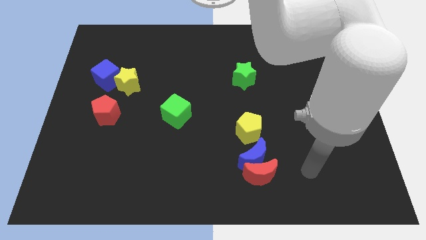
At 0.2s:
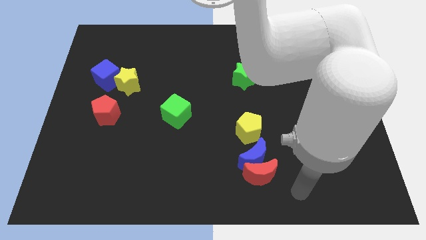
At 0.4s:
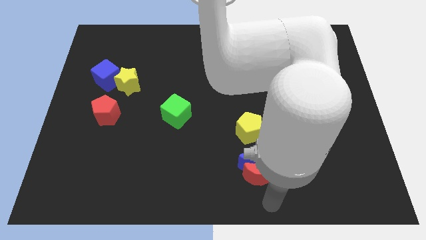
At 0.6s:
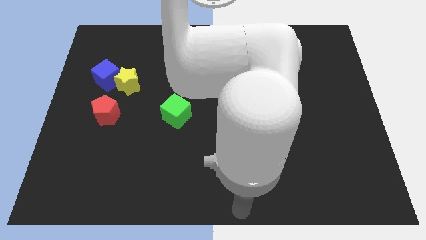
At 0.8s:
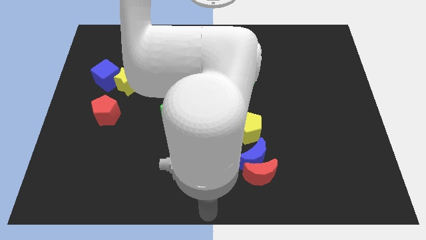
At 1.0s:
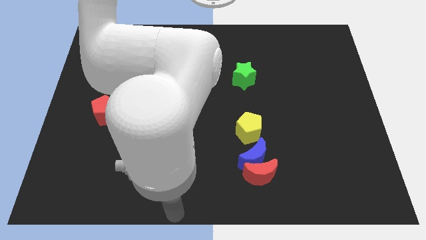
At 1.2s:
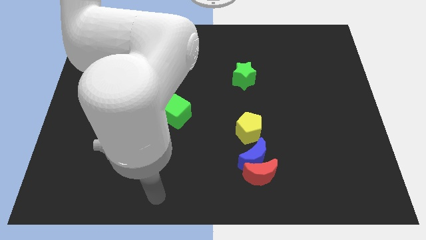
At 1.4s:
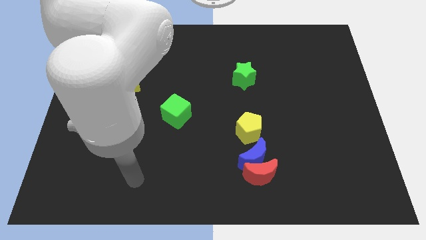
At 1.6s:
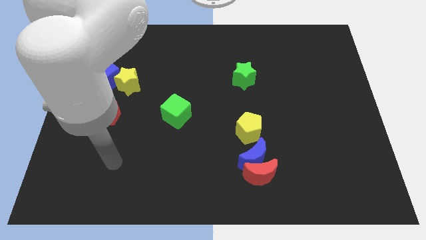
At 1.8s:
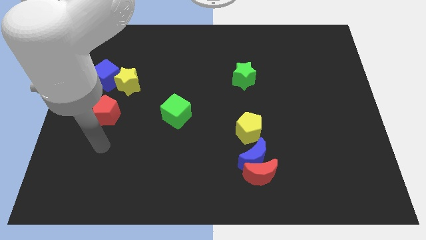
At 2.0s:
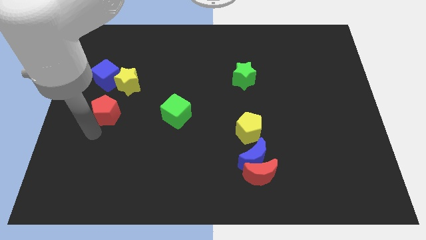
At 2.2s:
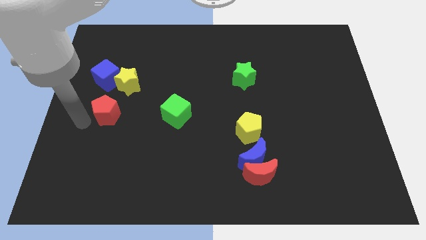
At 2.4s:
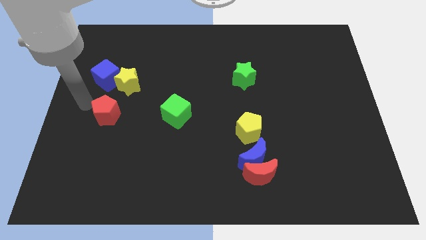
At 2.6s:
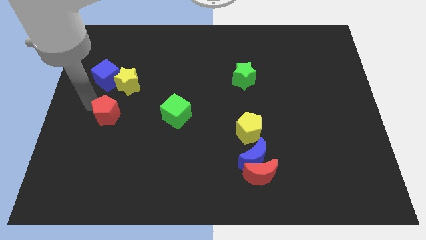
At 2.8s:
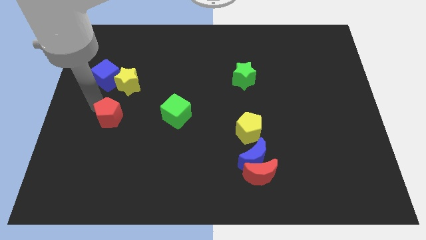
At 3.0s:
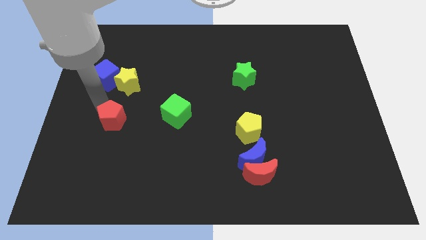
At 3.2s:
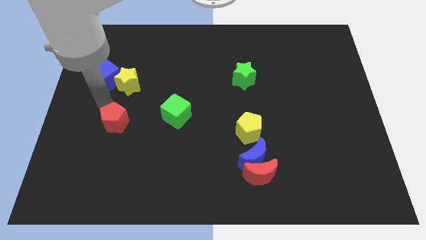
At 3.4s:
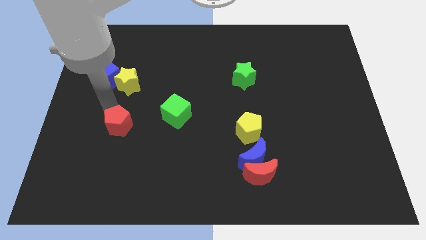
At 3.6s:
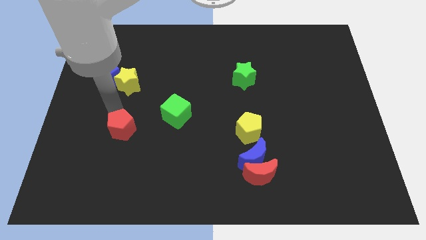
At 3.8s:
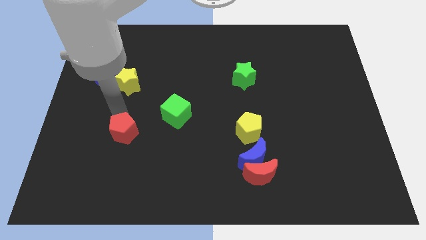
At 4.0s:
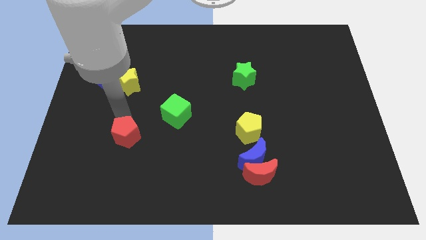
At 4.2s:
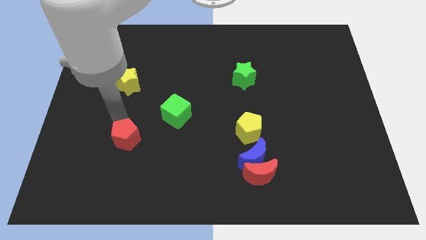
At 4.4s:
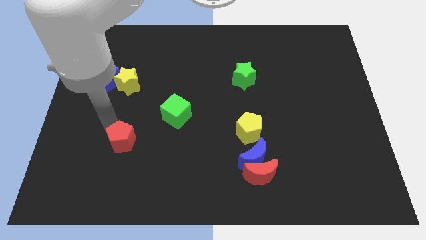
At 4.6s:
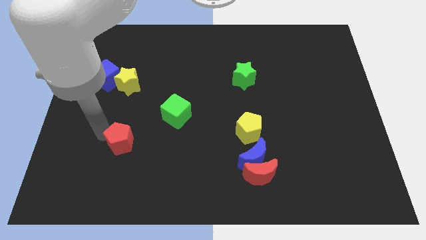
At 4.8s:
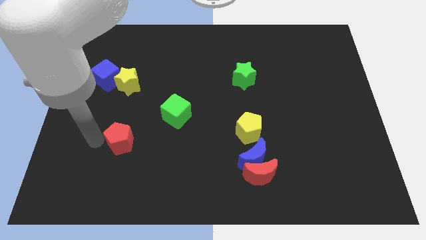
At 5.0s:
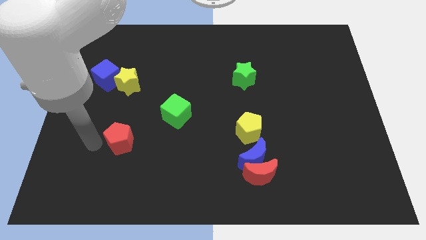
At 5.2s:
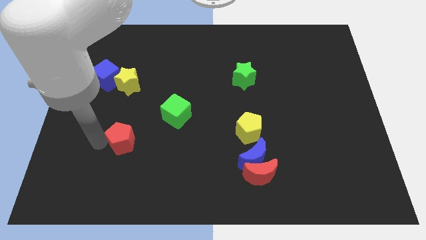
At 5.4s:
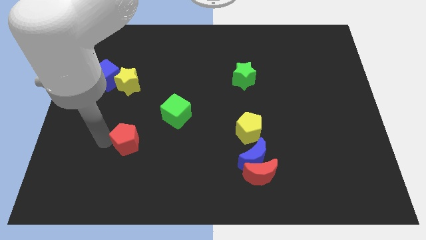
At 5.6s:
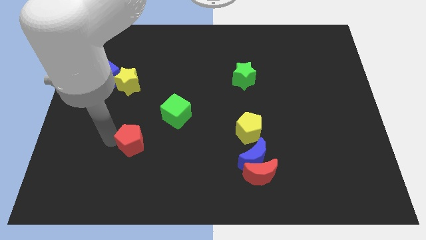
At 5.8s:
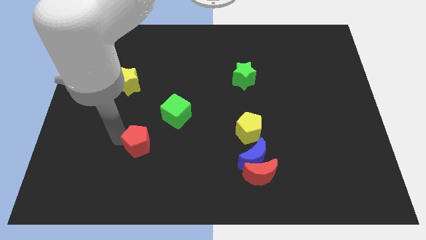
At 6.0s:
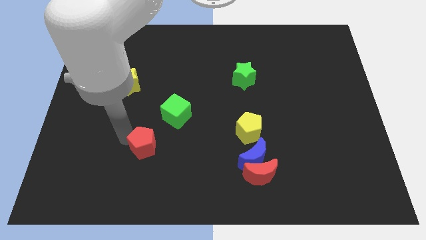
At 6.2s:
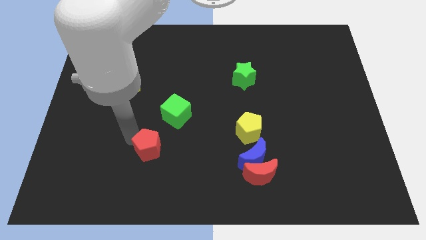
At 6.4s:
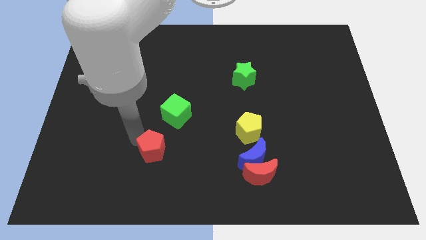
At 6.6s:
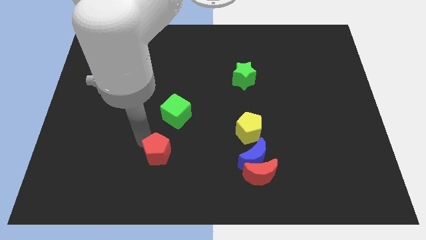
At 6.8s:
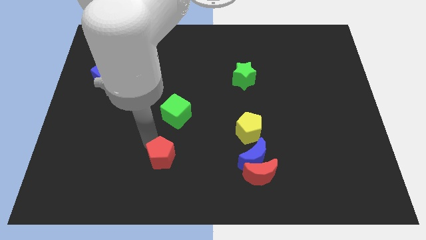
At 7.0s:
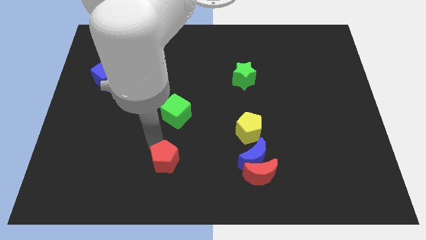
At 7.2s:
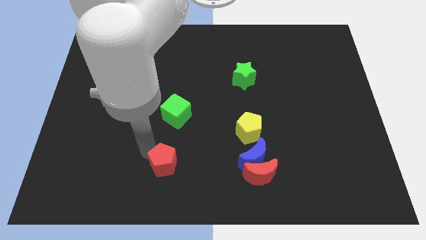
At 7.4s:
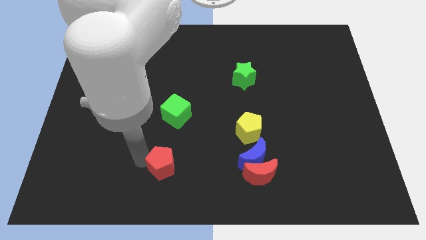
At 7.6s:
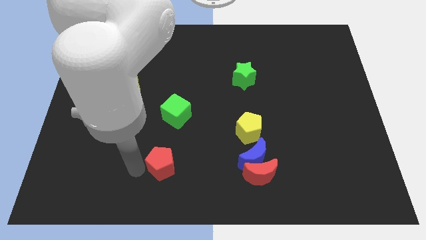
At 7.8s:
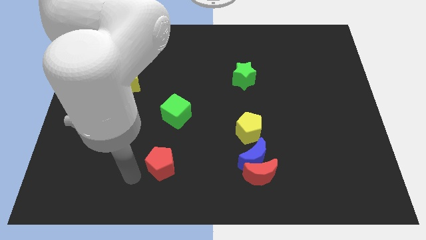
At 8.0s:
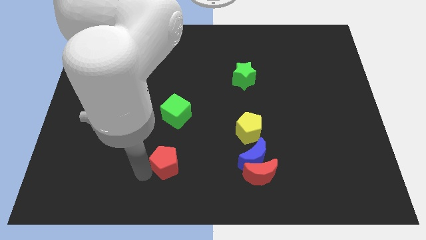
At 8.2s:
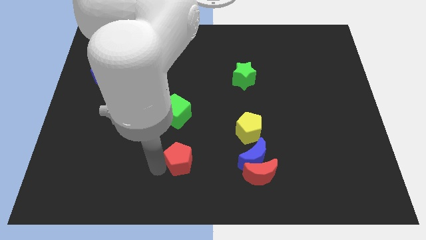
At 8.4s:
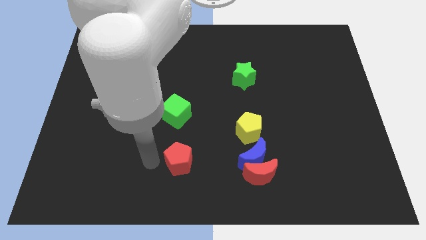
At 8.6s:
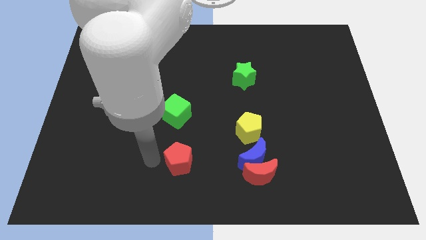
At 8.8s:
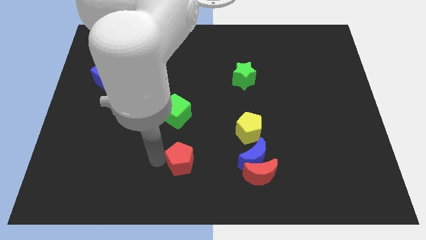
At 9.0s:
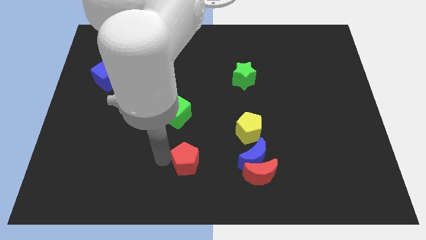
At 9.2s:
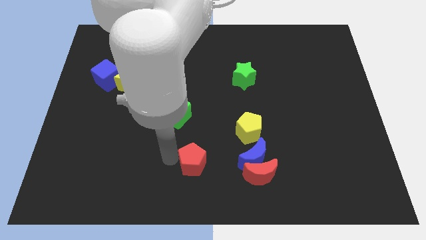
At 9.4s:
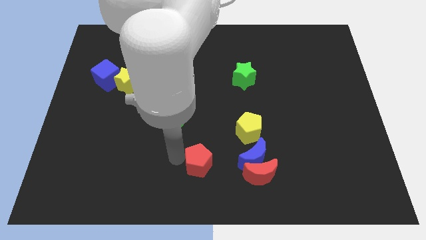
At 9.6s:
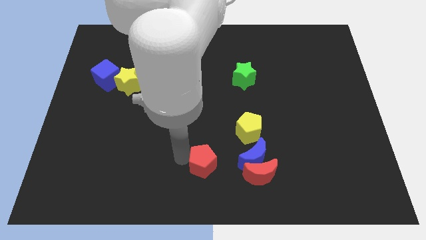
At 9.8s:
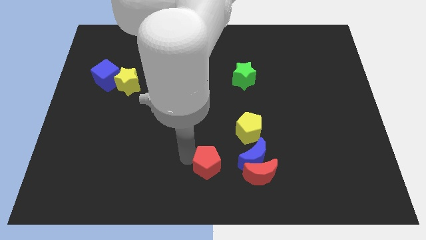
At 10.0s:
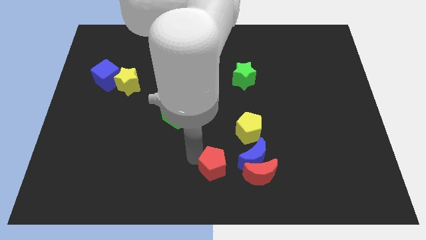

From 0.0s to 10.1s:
slide the red pentagon to the bottom left side of the blue moon

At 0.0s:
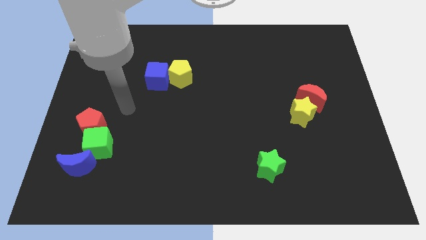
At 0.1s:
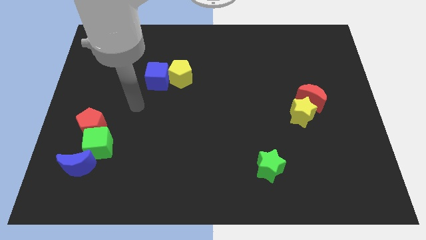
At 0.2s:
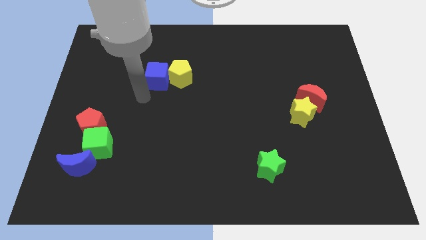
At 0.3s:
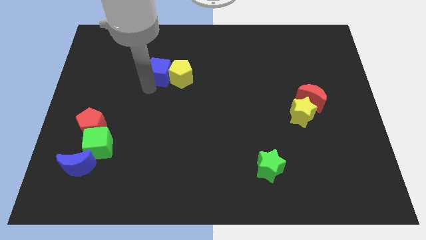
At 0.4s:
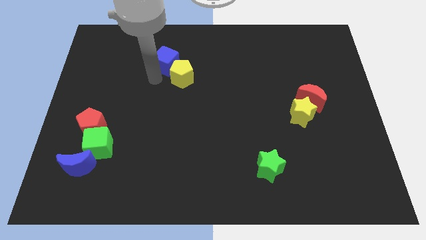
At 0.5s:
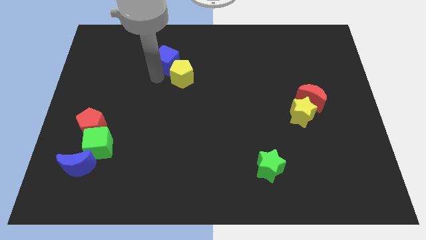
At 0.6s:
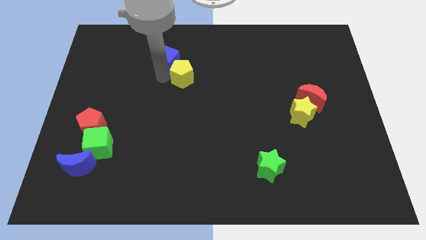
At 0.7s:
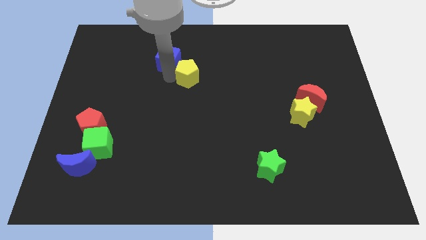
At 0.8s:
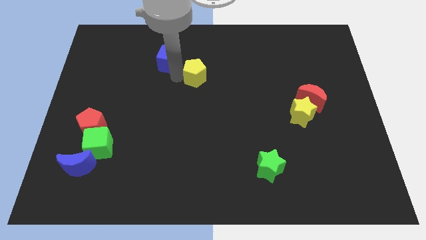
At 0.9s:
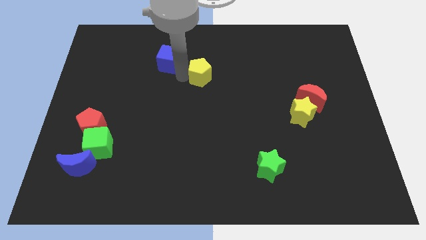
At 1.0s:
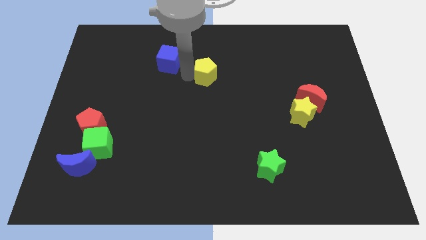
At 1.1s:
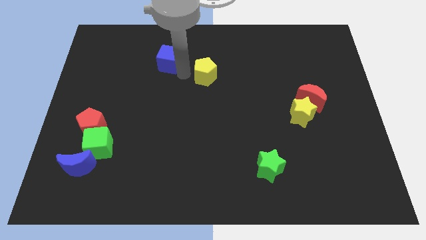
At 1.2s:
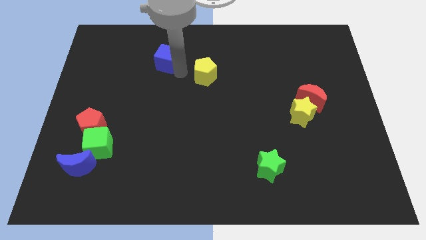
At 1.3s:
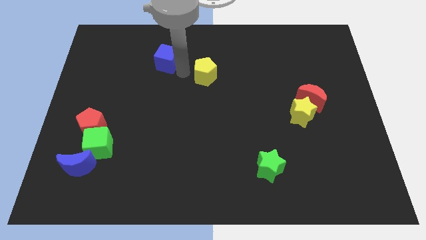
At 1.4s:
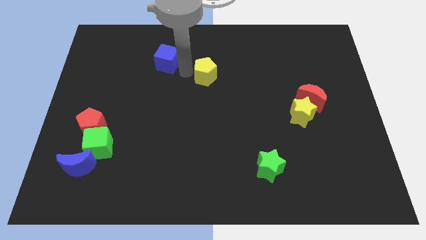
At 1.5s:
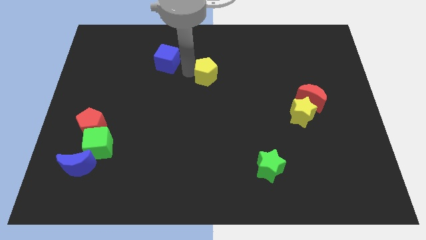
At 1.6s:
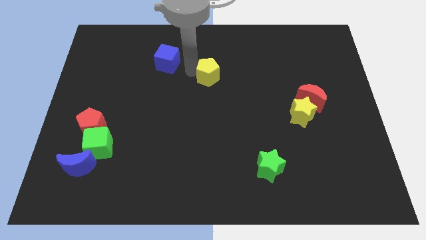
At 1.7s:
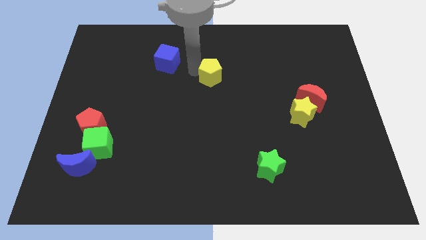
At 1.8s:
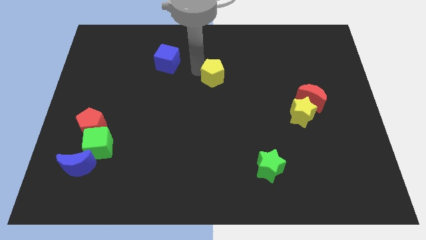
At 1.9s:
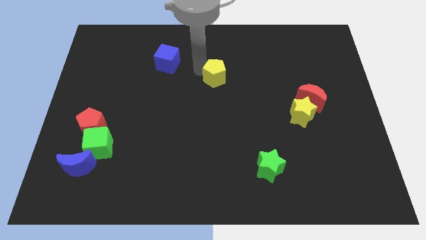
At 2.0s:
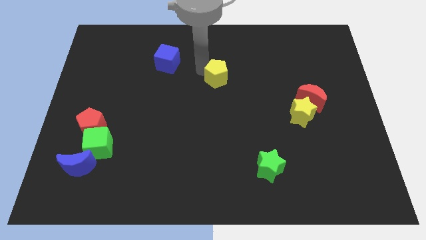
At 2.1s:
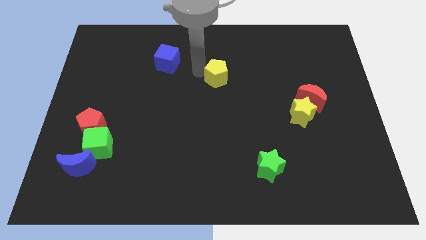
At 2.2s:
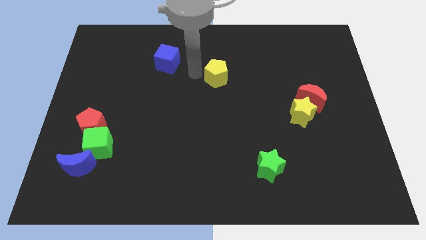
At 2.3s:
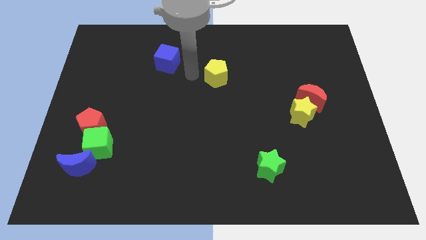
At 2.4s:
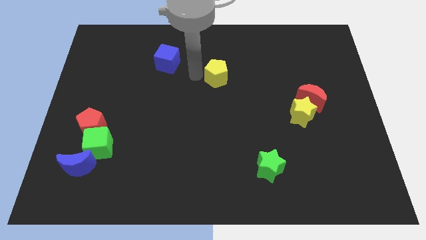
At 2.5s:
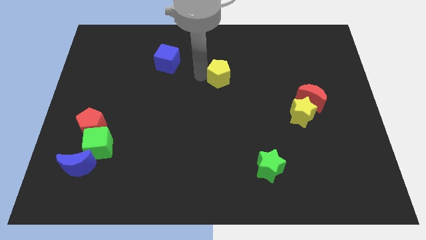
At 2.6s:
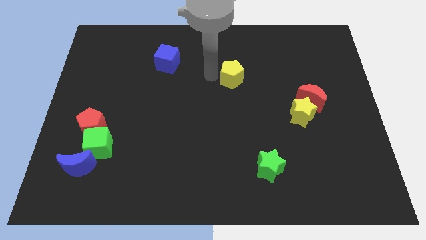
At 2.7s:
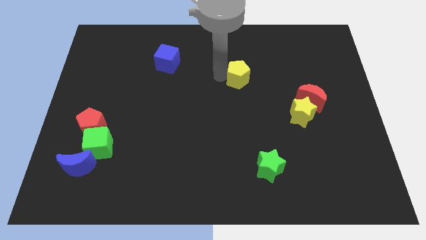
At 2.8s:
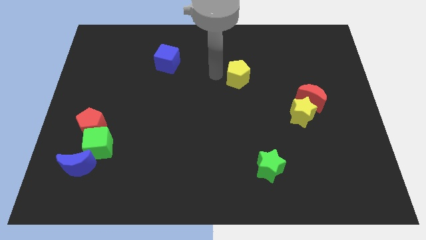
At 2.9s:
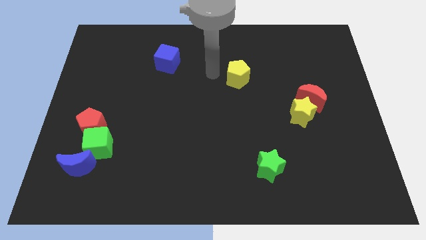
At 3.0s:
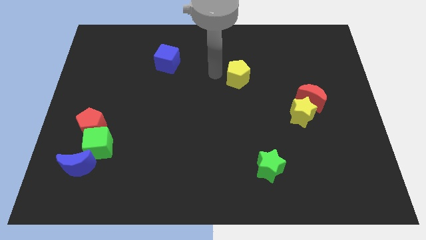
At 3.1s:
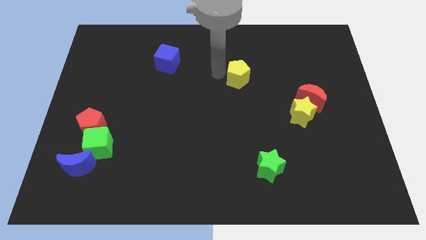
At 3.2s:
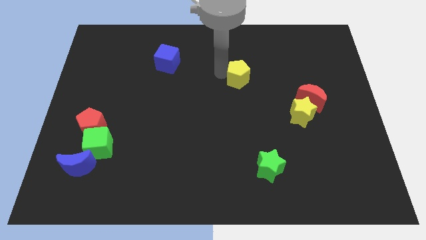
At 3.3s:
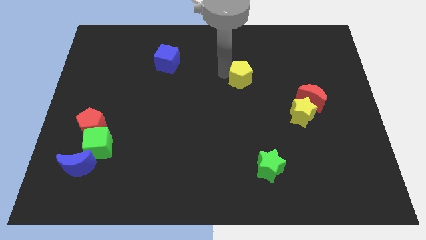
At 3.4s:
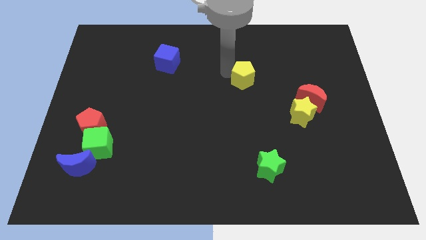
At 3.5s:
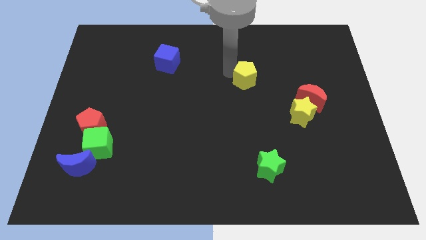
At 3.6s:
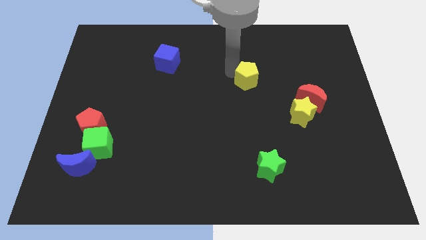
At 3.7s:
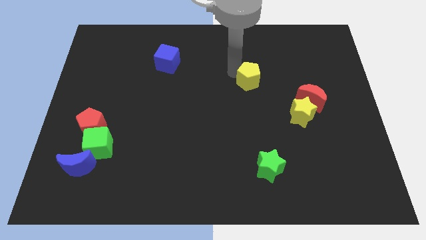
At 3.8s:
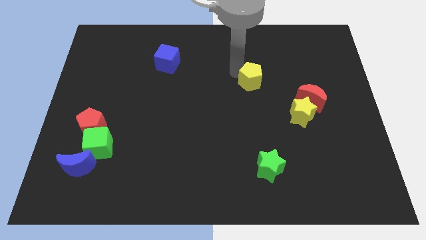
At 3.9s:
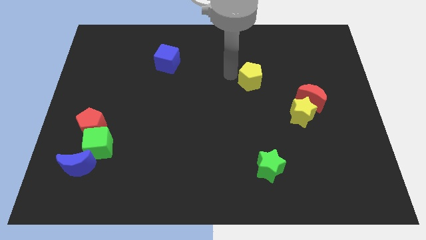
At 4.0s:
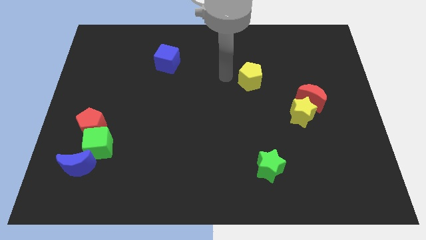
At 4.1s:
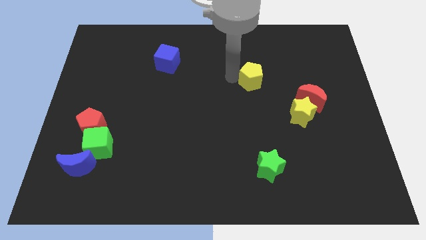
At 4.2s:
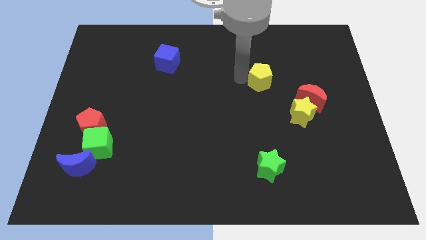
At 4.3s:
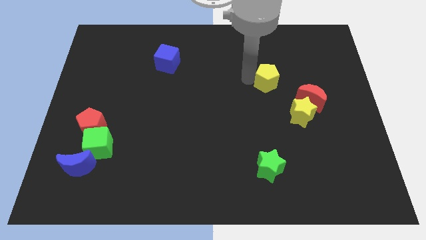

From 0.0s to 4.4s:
move the yellow pentagon diagonally up and to the left of the red moon
